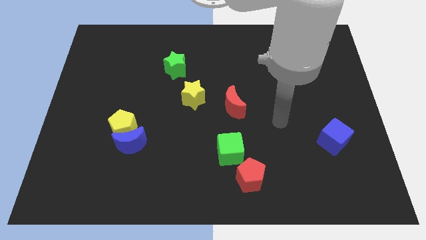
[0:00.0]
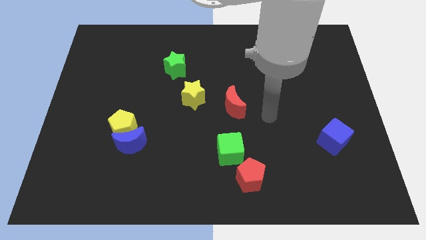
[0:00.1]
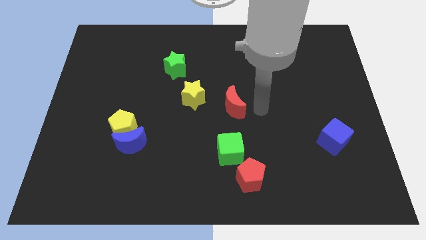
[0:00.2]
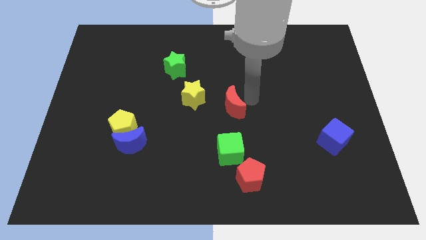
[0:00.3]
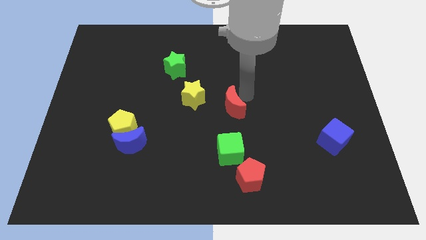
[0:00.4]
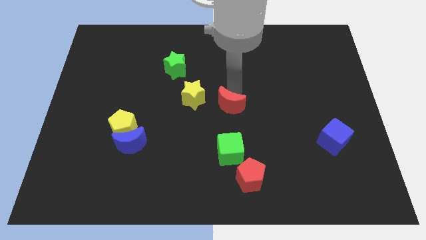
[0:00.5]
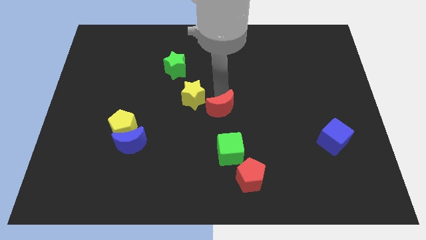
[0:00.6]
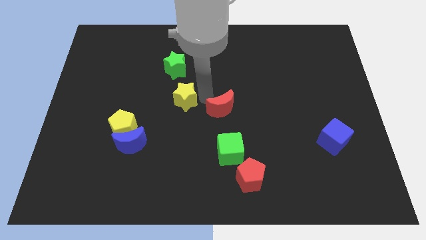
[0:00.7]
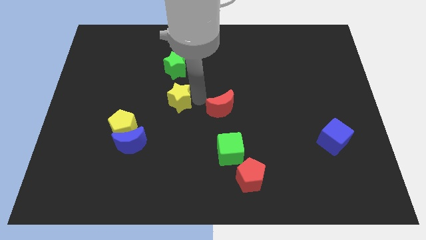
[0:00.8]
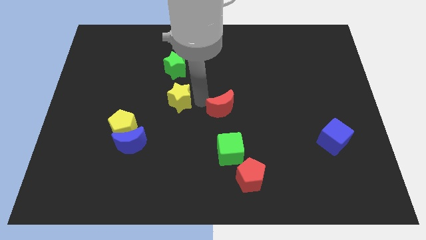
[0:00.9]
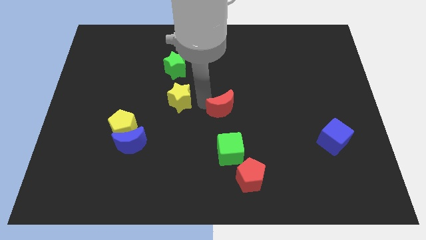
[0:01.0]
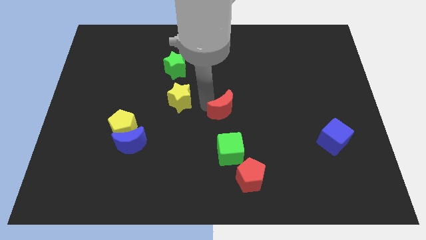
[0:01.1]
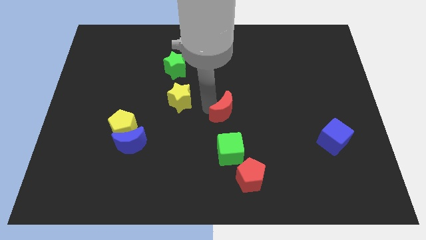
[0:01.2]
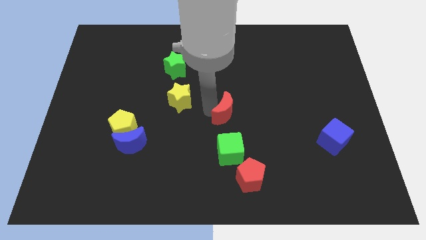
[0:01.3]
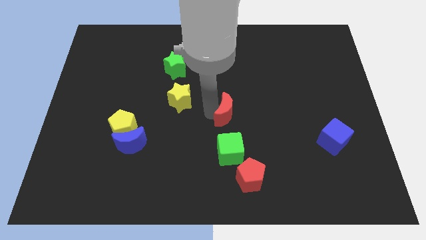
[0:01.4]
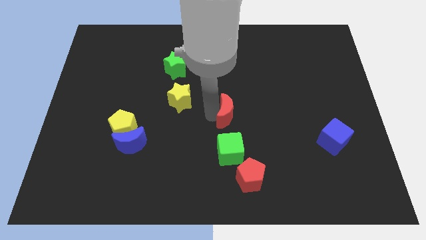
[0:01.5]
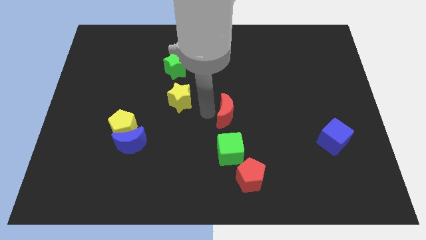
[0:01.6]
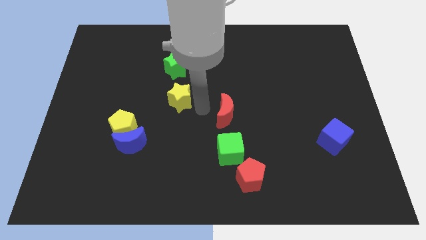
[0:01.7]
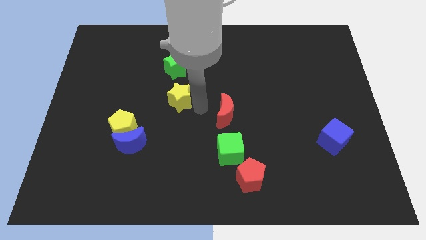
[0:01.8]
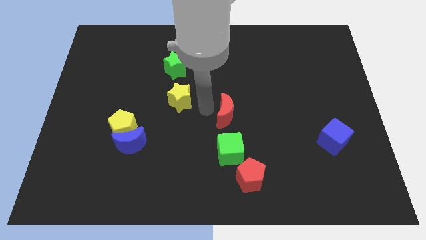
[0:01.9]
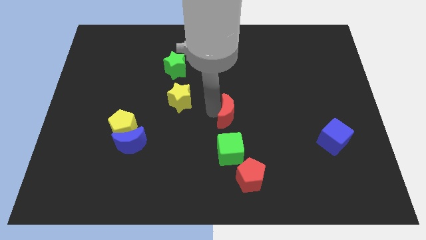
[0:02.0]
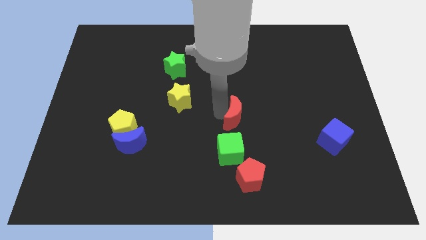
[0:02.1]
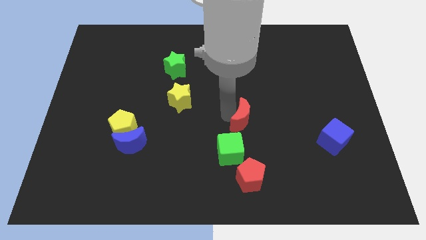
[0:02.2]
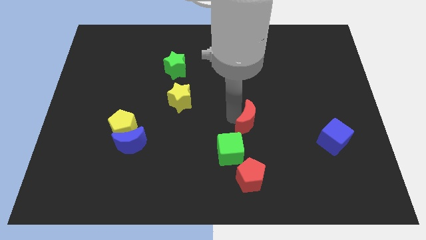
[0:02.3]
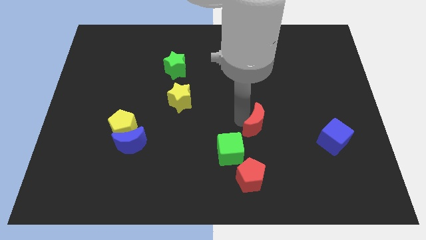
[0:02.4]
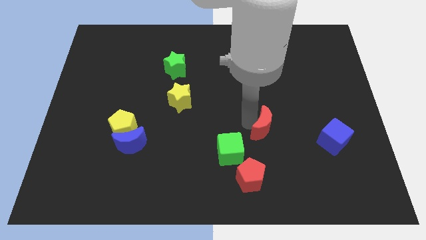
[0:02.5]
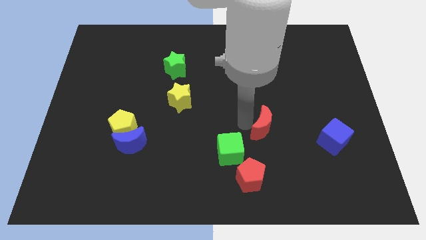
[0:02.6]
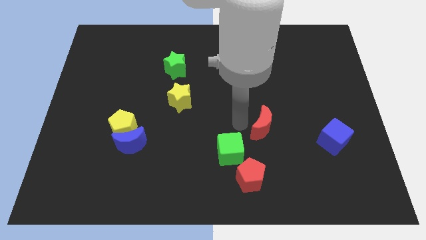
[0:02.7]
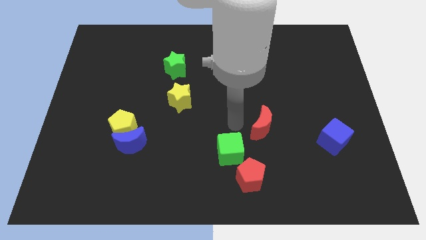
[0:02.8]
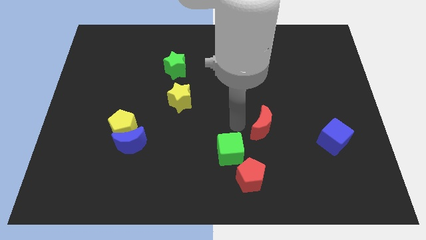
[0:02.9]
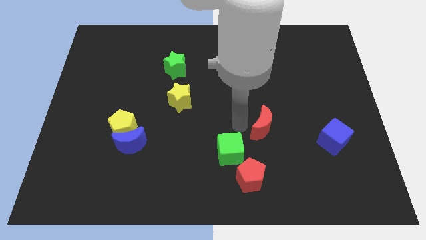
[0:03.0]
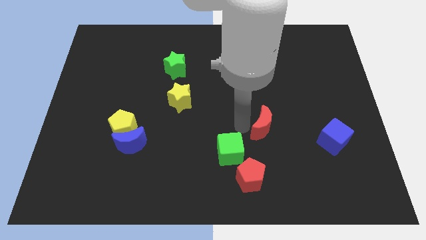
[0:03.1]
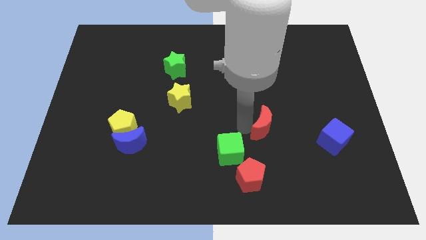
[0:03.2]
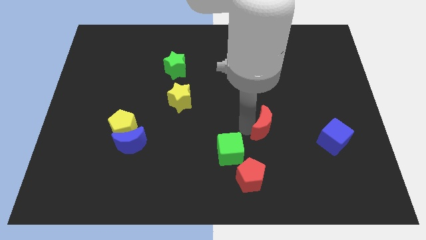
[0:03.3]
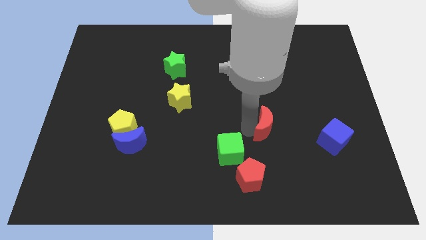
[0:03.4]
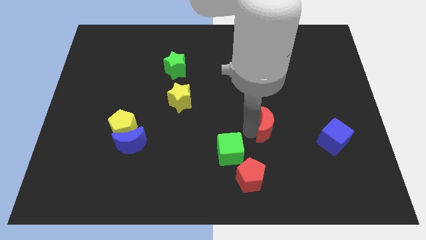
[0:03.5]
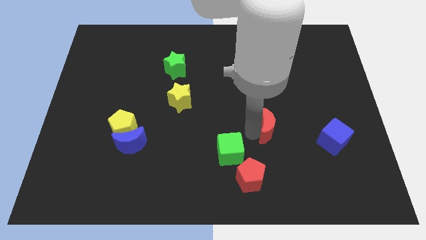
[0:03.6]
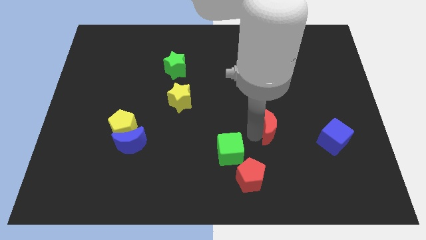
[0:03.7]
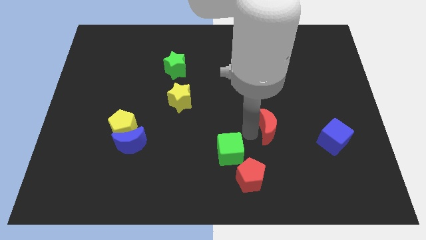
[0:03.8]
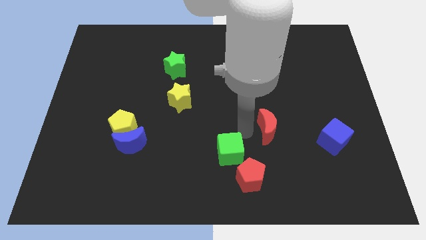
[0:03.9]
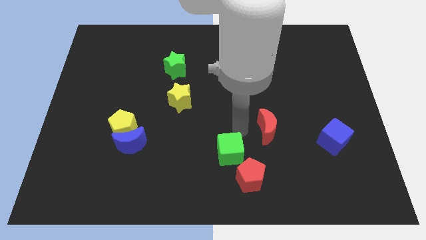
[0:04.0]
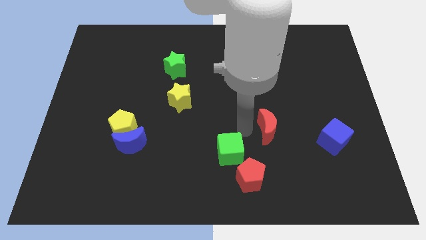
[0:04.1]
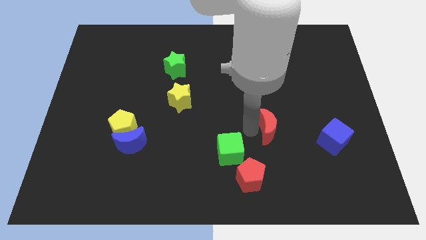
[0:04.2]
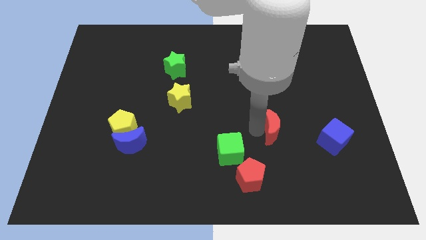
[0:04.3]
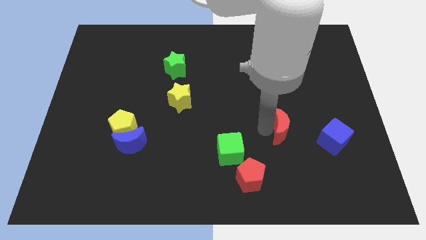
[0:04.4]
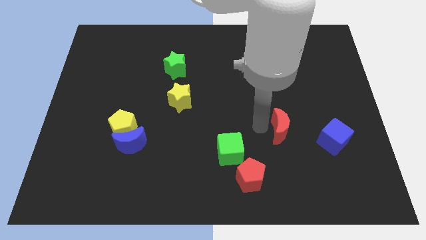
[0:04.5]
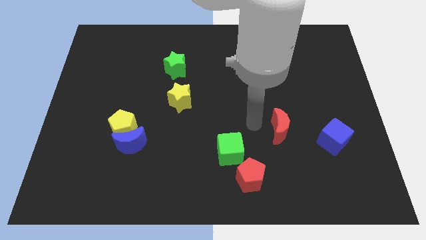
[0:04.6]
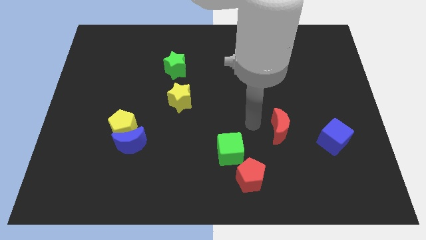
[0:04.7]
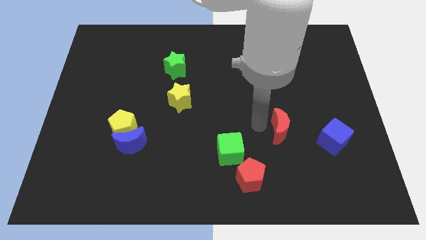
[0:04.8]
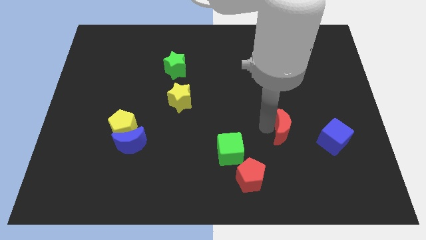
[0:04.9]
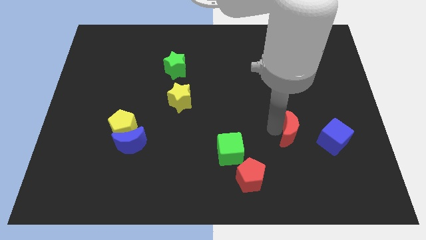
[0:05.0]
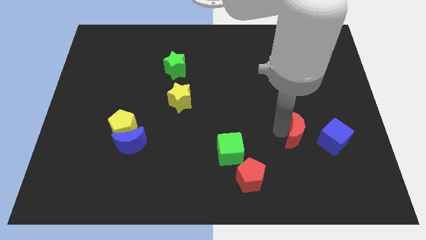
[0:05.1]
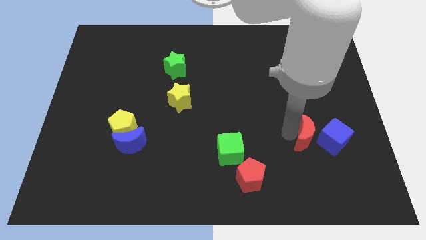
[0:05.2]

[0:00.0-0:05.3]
push the red moon close to the blue cube

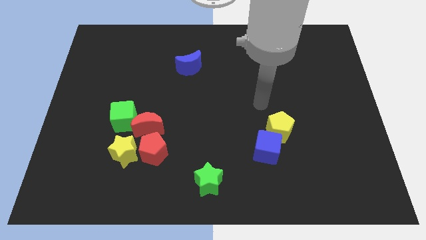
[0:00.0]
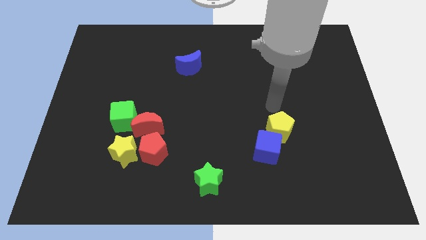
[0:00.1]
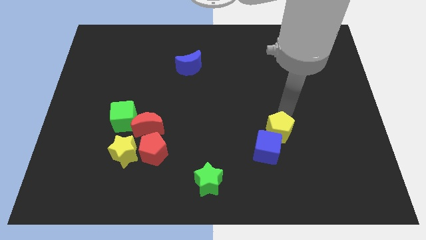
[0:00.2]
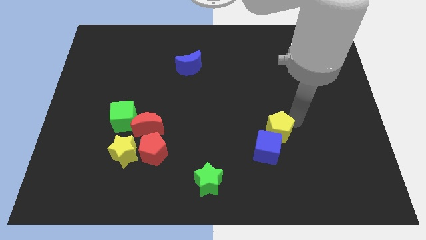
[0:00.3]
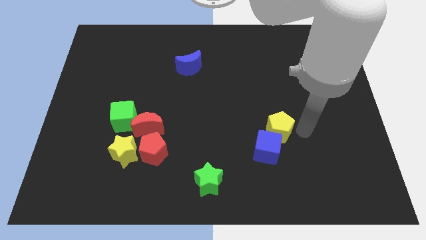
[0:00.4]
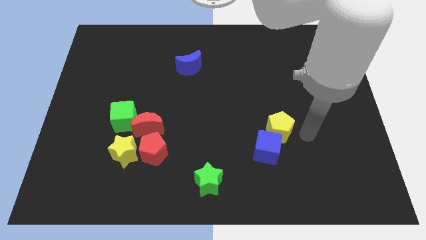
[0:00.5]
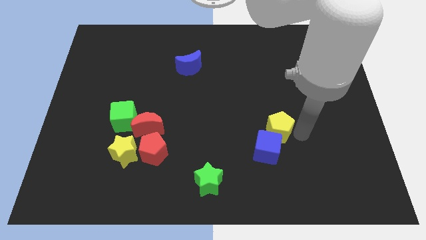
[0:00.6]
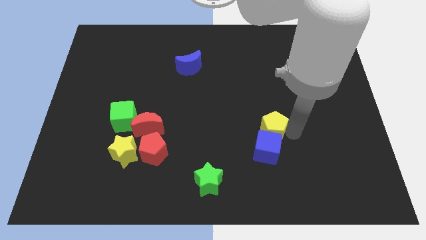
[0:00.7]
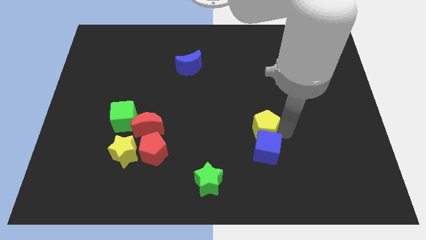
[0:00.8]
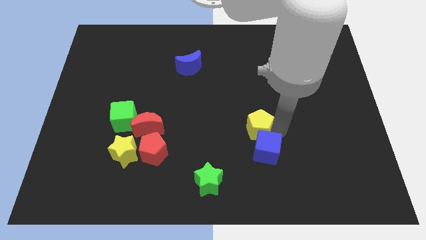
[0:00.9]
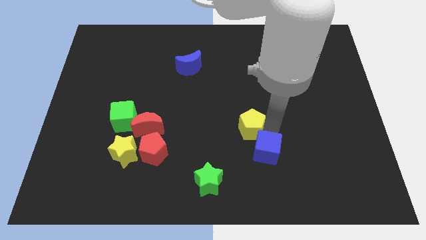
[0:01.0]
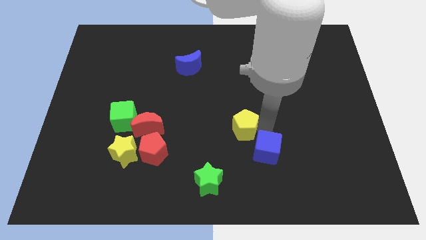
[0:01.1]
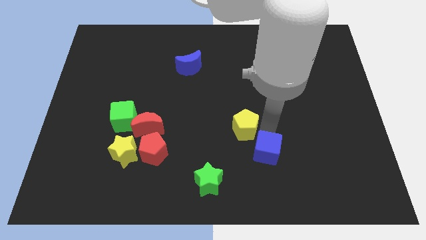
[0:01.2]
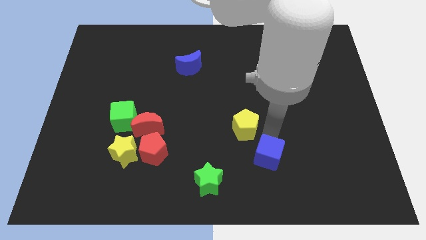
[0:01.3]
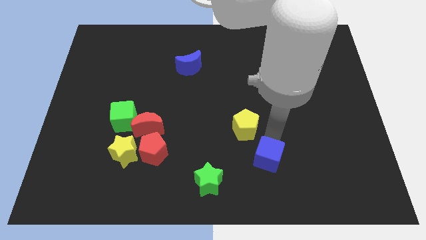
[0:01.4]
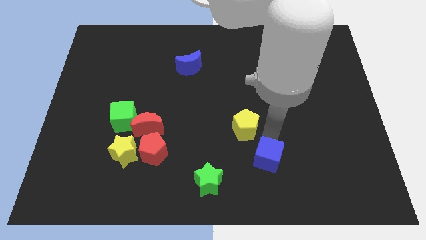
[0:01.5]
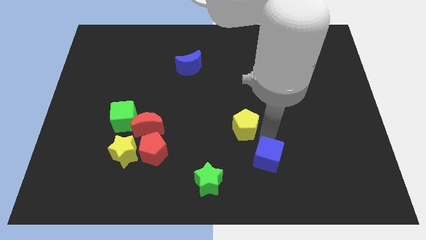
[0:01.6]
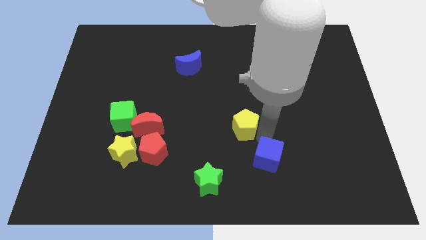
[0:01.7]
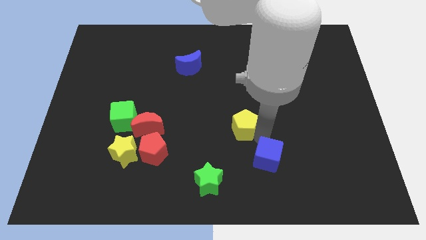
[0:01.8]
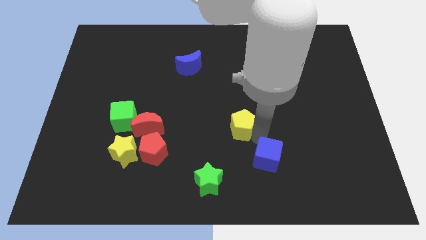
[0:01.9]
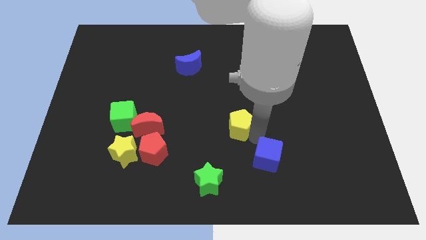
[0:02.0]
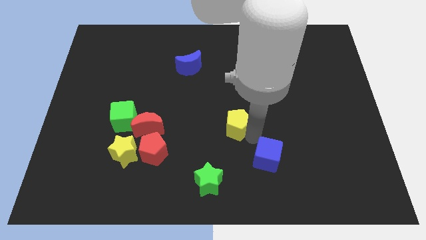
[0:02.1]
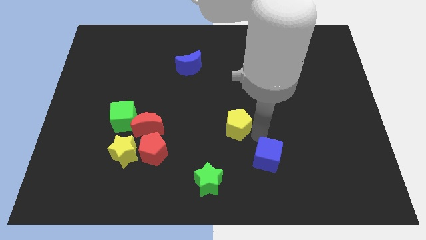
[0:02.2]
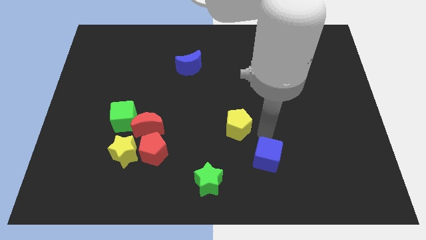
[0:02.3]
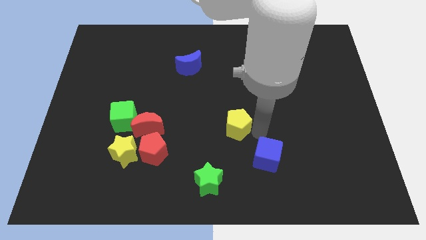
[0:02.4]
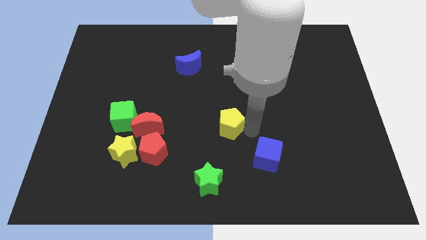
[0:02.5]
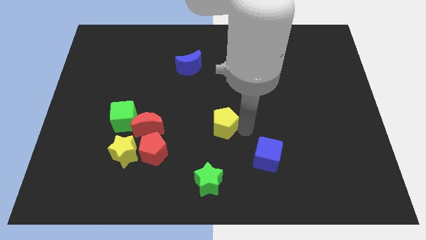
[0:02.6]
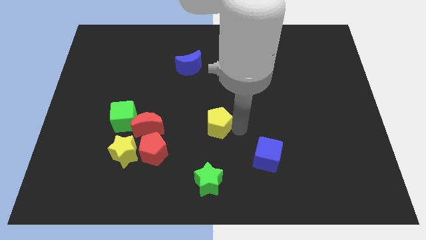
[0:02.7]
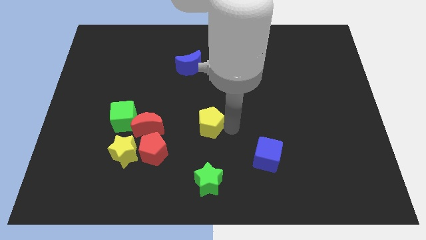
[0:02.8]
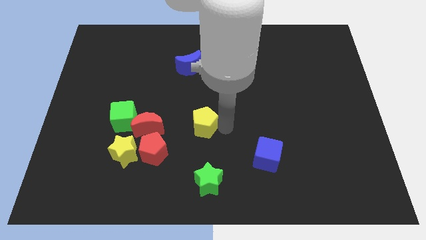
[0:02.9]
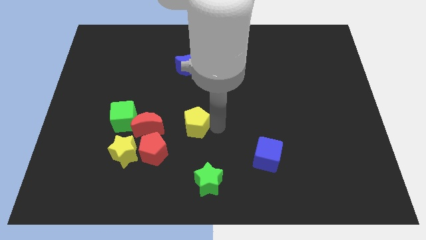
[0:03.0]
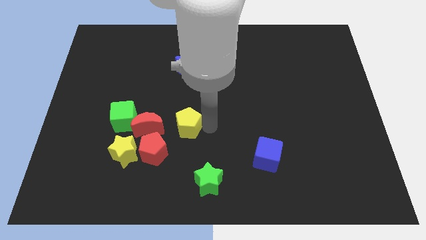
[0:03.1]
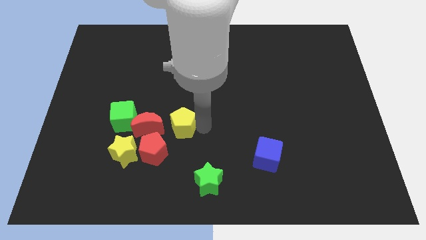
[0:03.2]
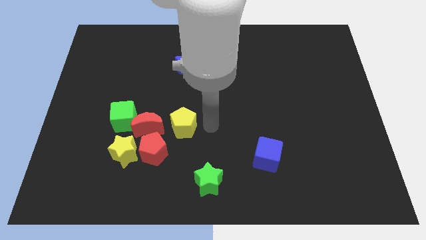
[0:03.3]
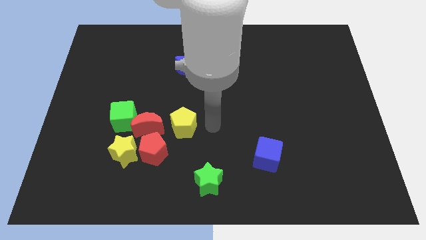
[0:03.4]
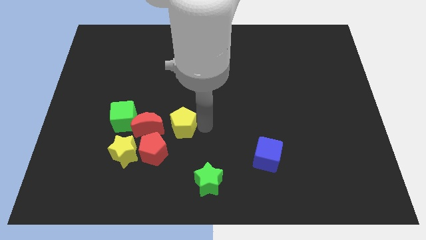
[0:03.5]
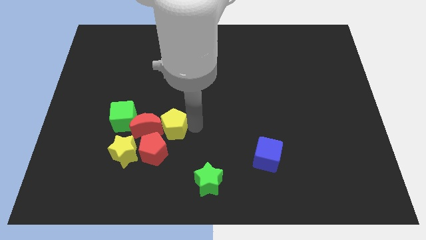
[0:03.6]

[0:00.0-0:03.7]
slide the yellow pentagon towards the red moon
